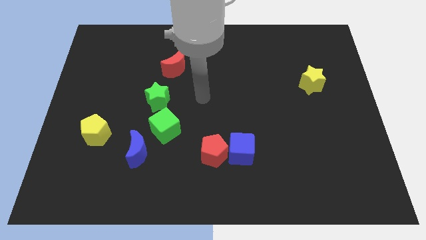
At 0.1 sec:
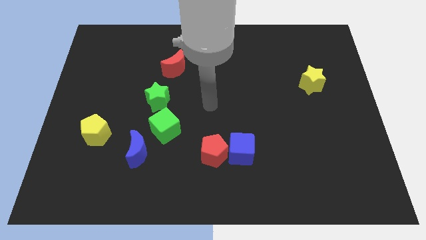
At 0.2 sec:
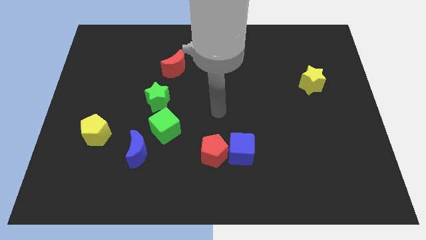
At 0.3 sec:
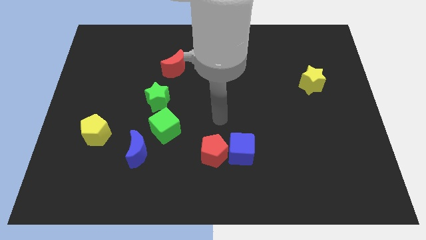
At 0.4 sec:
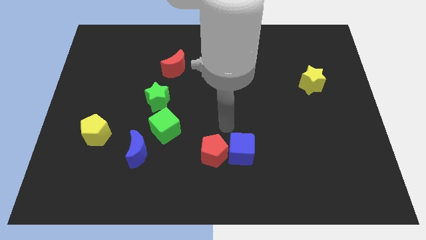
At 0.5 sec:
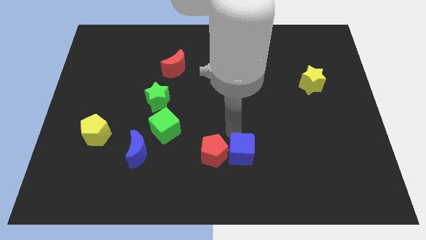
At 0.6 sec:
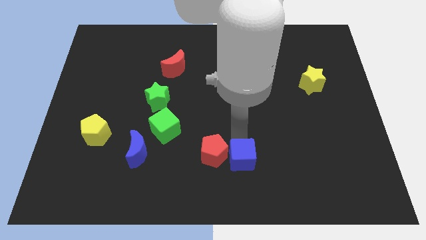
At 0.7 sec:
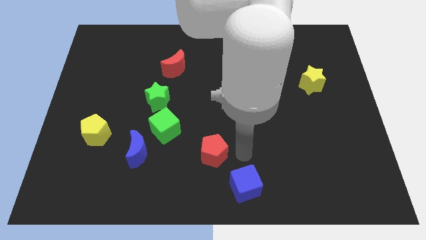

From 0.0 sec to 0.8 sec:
separate the red pentagon from the blue cube

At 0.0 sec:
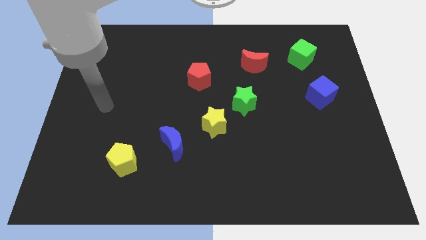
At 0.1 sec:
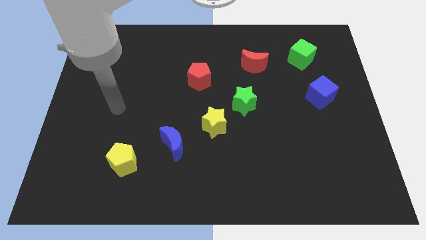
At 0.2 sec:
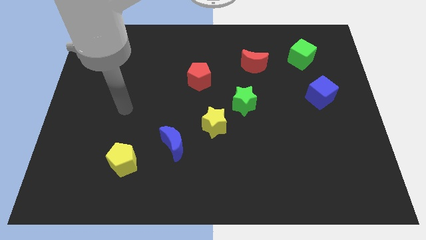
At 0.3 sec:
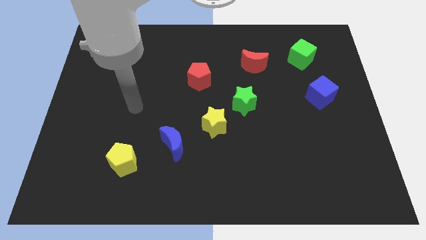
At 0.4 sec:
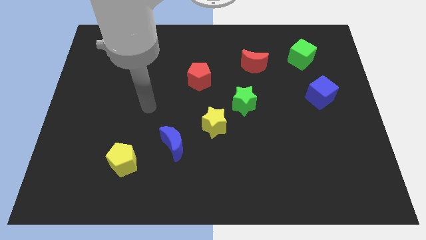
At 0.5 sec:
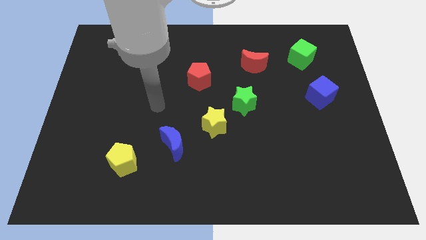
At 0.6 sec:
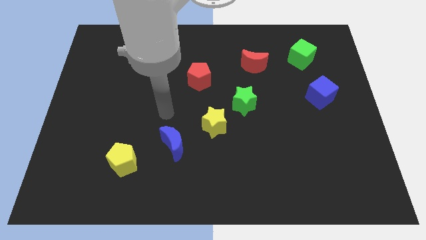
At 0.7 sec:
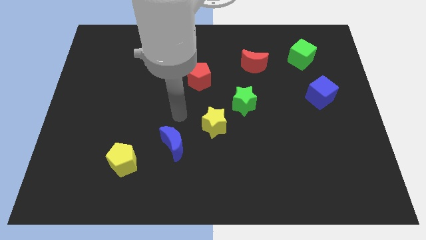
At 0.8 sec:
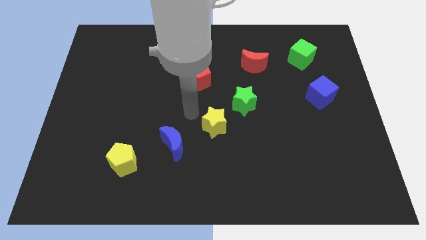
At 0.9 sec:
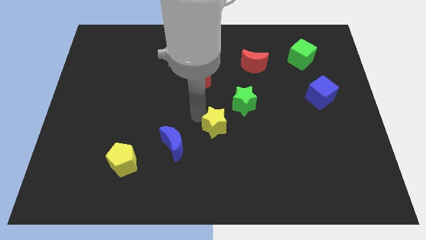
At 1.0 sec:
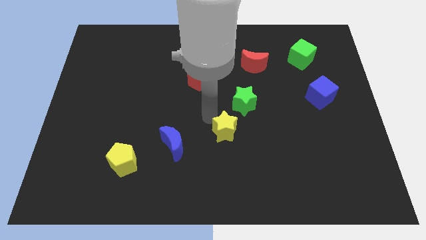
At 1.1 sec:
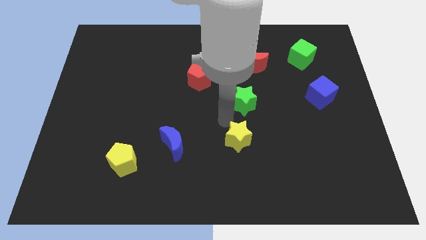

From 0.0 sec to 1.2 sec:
pull the green star apart from the yellow star

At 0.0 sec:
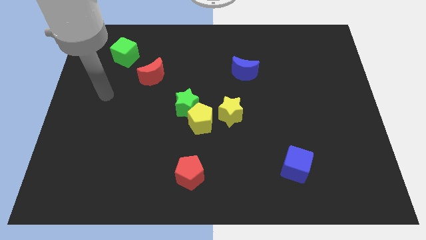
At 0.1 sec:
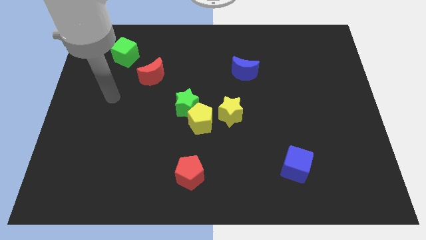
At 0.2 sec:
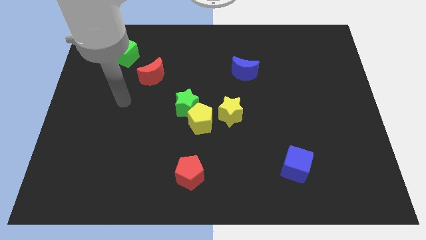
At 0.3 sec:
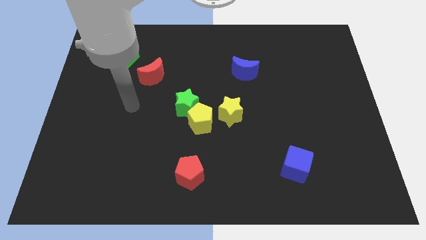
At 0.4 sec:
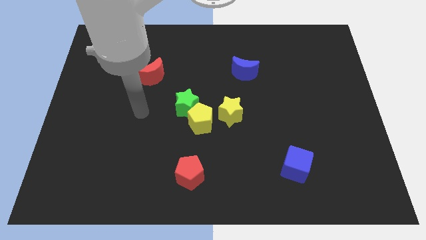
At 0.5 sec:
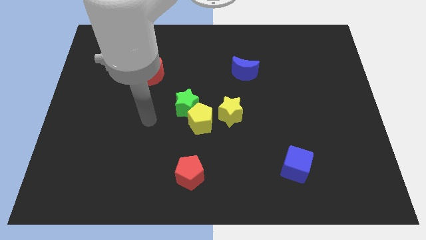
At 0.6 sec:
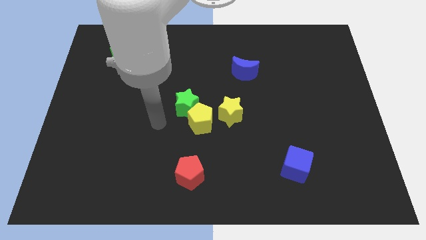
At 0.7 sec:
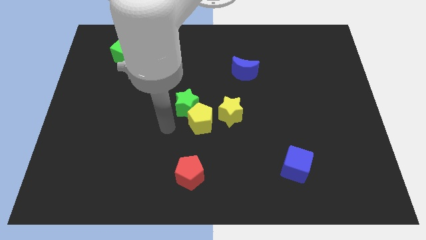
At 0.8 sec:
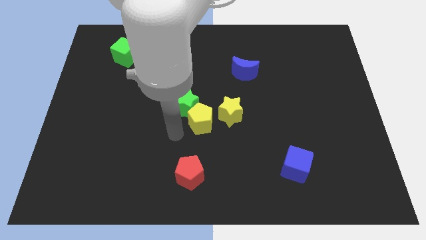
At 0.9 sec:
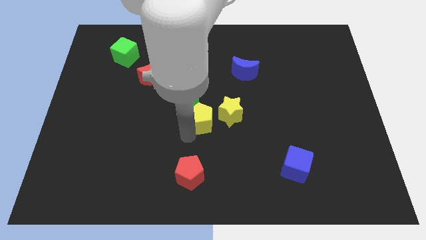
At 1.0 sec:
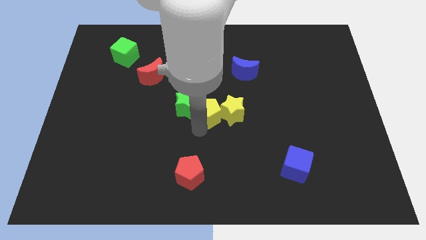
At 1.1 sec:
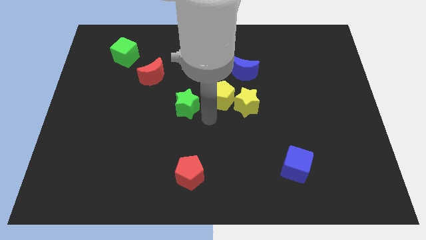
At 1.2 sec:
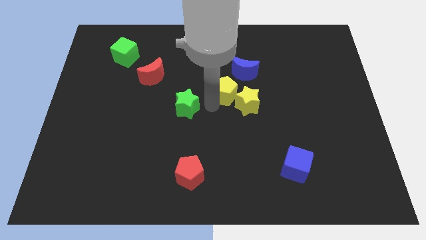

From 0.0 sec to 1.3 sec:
pull the green star apart from the yellow pentagon

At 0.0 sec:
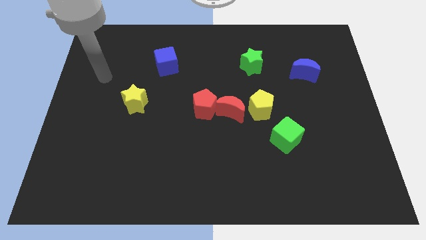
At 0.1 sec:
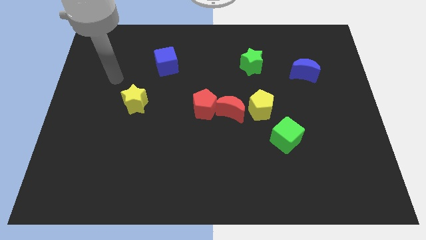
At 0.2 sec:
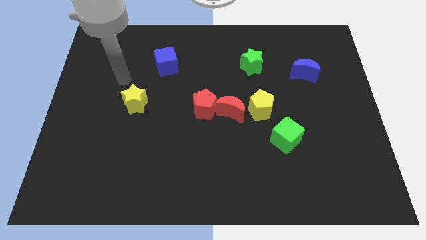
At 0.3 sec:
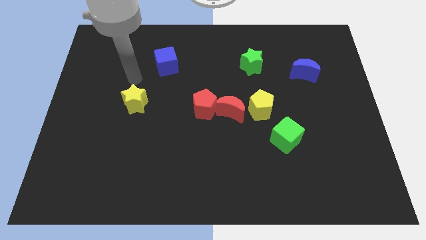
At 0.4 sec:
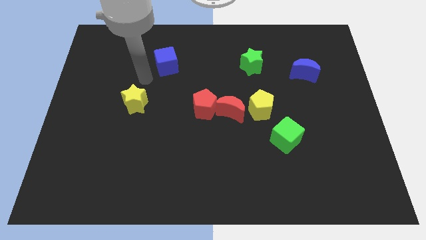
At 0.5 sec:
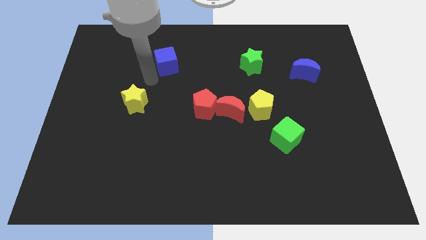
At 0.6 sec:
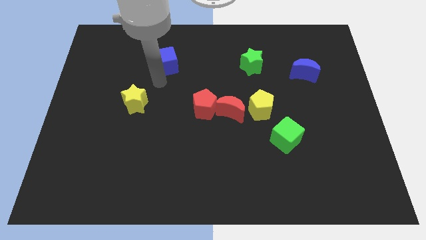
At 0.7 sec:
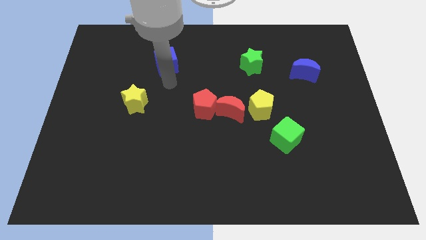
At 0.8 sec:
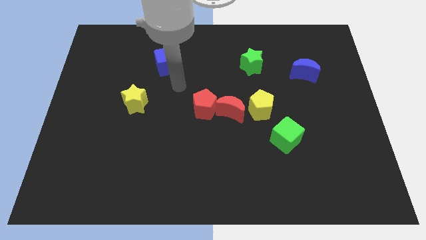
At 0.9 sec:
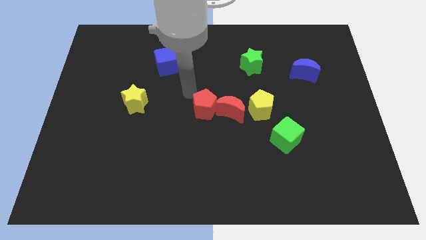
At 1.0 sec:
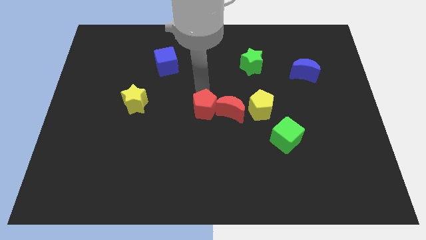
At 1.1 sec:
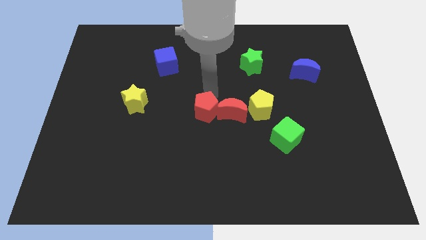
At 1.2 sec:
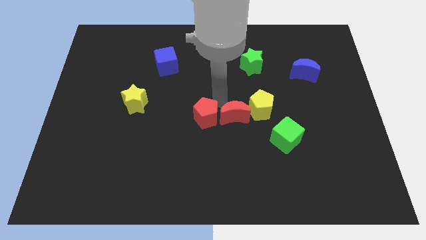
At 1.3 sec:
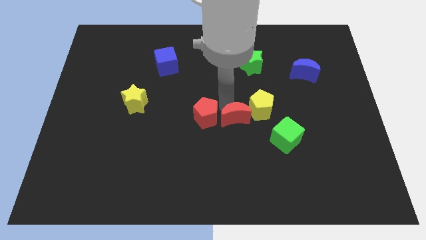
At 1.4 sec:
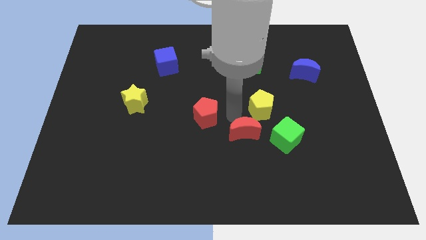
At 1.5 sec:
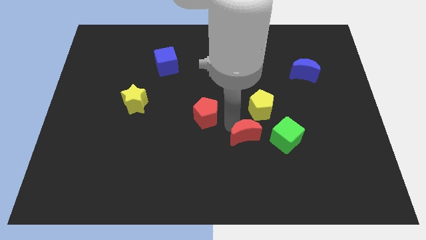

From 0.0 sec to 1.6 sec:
separate the red pentagon from the red moon

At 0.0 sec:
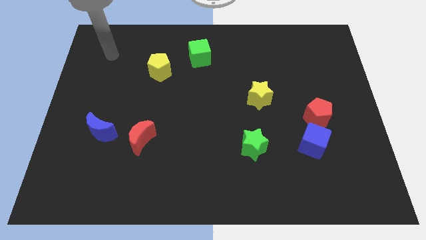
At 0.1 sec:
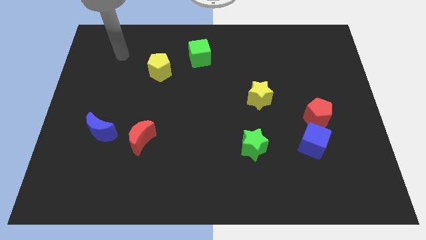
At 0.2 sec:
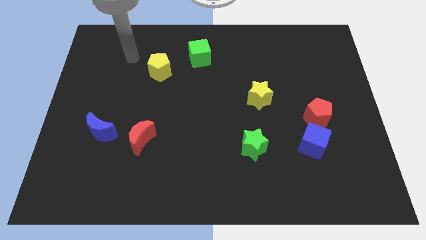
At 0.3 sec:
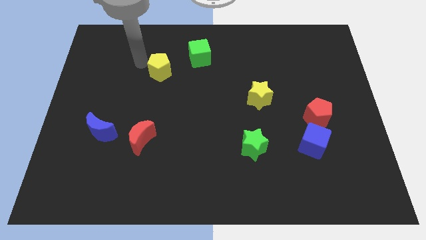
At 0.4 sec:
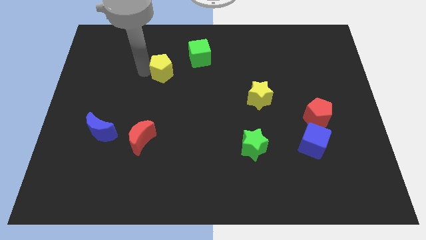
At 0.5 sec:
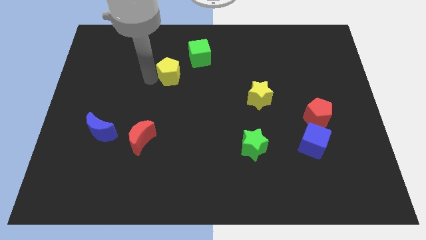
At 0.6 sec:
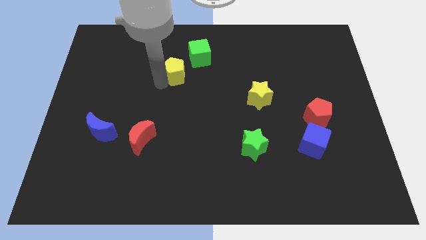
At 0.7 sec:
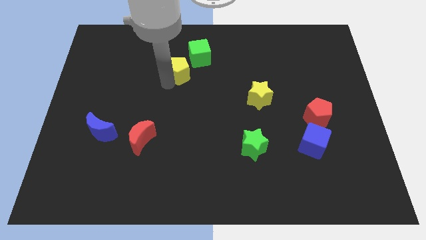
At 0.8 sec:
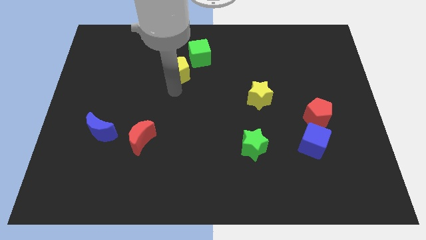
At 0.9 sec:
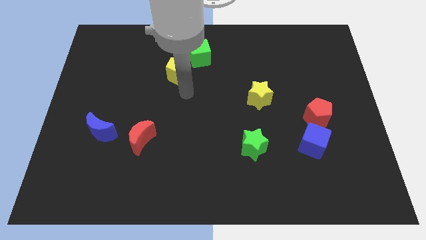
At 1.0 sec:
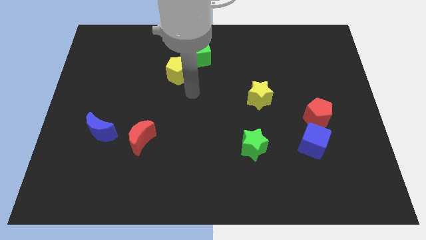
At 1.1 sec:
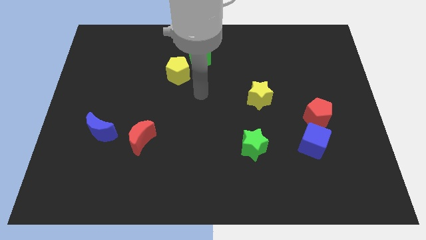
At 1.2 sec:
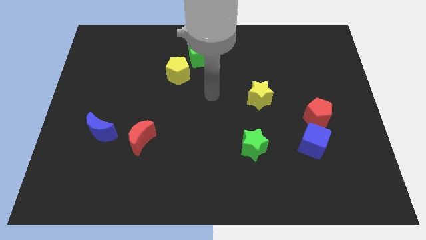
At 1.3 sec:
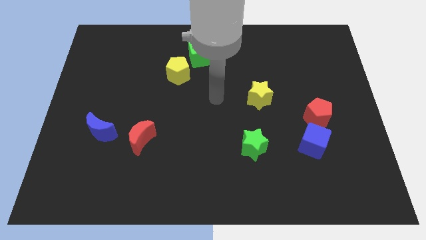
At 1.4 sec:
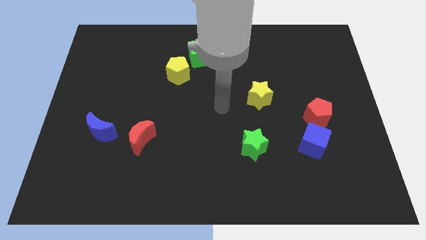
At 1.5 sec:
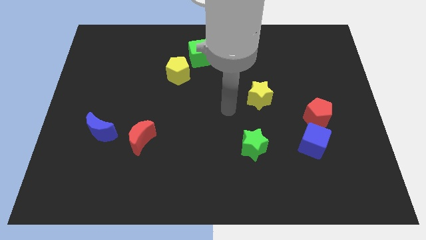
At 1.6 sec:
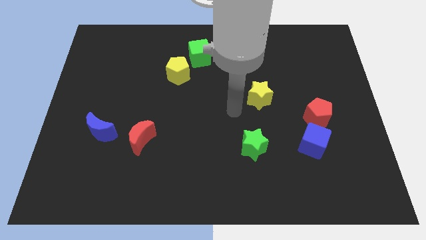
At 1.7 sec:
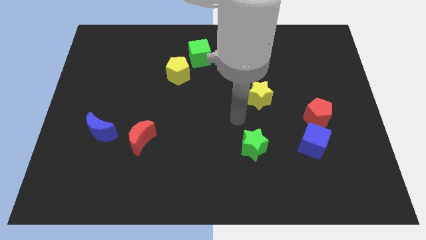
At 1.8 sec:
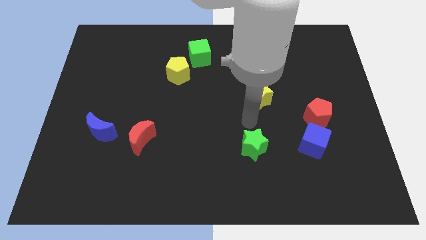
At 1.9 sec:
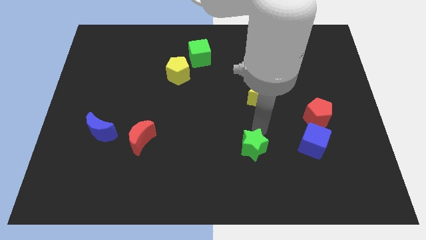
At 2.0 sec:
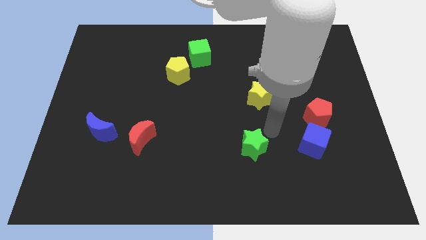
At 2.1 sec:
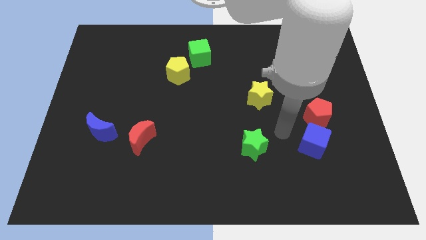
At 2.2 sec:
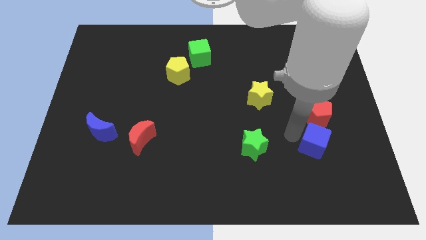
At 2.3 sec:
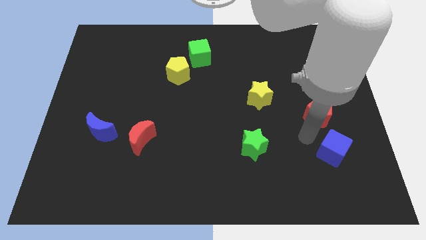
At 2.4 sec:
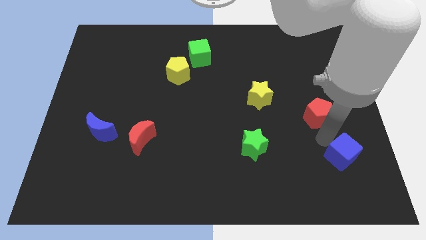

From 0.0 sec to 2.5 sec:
pull the red pentagon apart from the blue cube

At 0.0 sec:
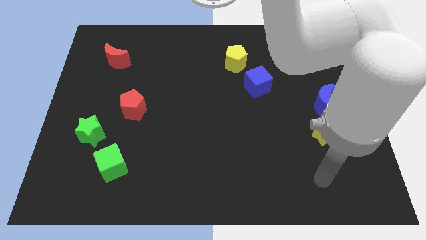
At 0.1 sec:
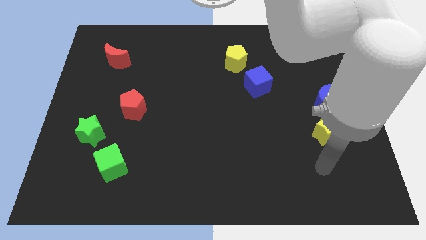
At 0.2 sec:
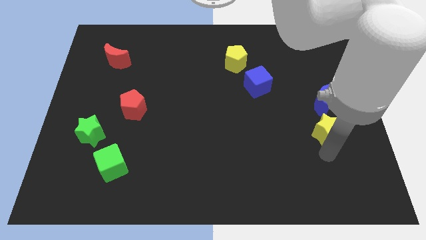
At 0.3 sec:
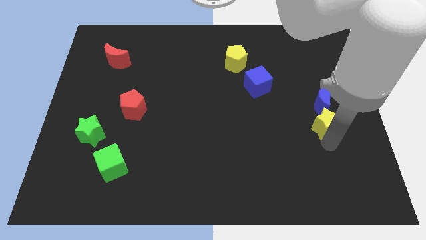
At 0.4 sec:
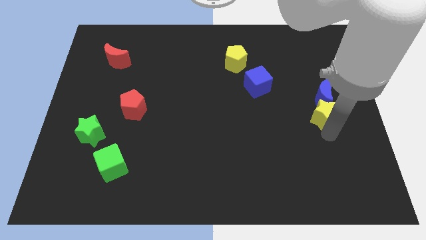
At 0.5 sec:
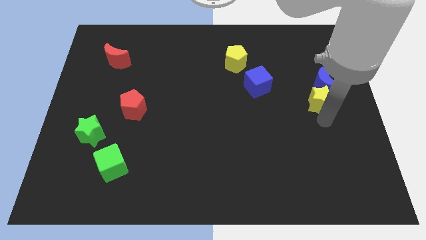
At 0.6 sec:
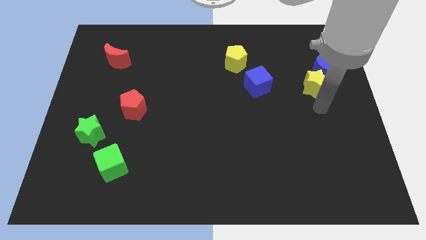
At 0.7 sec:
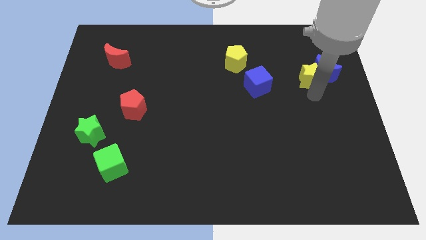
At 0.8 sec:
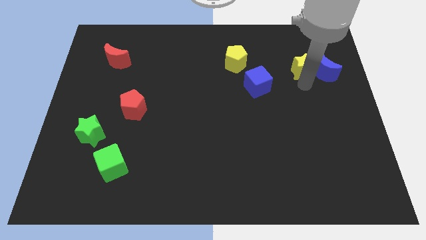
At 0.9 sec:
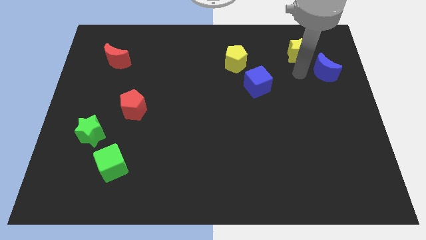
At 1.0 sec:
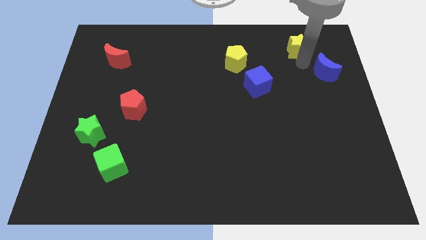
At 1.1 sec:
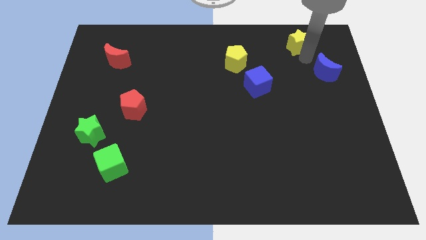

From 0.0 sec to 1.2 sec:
move the blue moon away from the yellow star

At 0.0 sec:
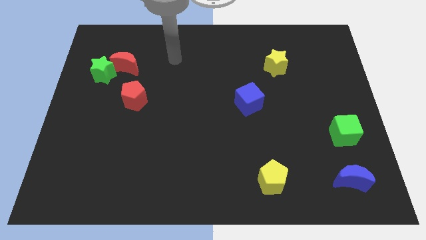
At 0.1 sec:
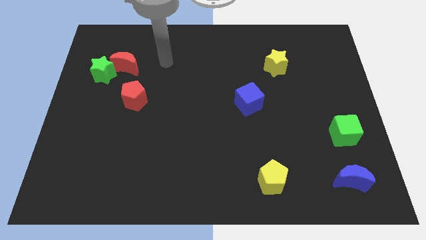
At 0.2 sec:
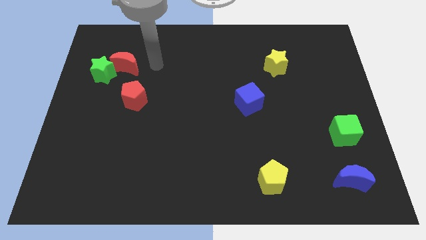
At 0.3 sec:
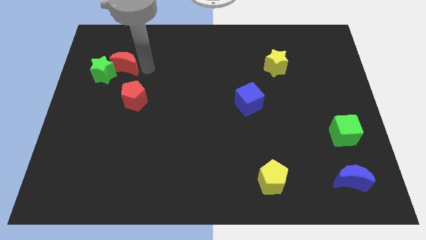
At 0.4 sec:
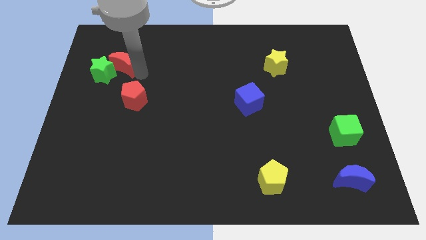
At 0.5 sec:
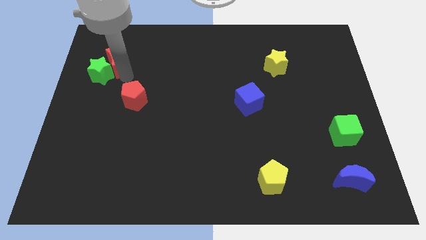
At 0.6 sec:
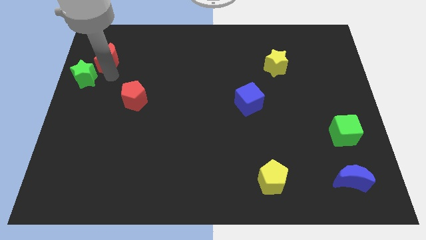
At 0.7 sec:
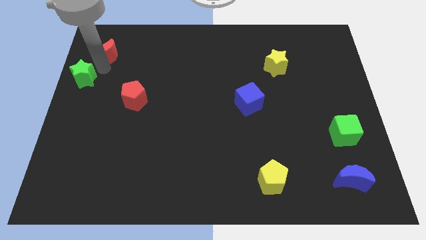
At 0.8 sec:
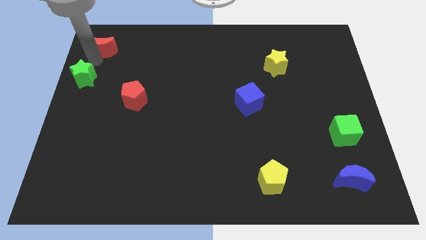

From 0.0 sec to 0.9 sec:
pull the red moon apart from the green star
